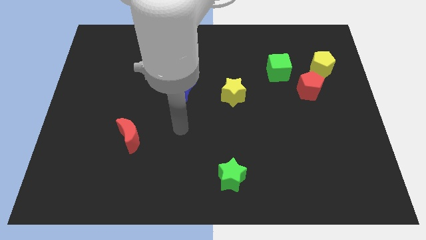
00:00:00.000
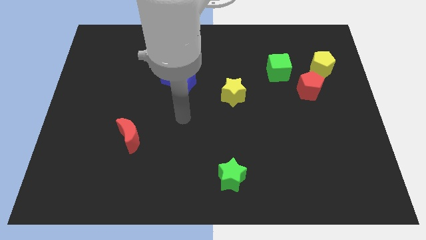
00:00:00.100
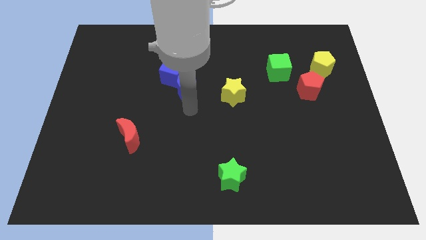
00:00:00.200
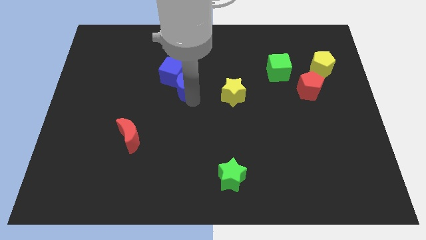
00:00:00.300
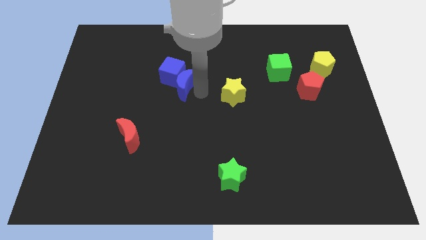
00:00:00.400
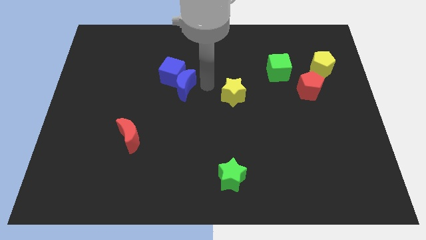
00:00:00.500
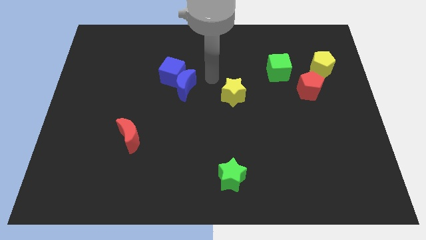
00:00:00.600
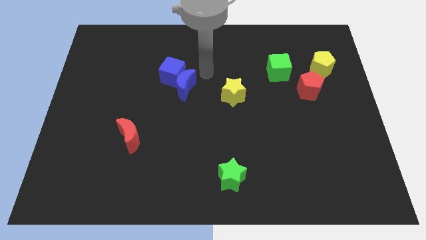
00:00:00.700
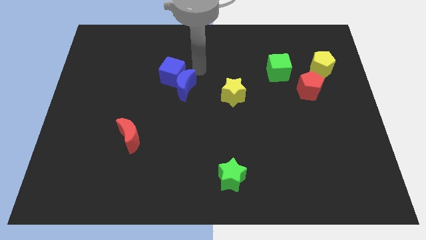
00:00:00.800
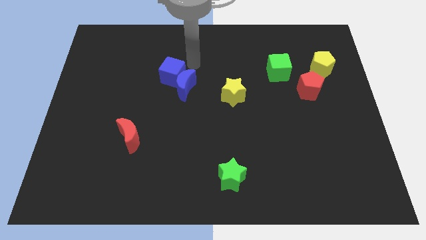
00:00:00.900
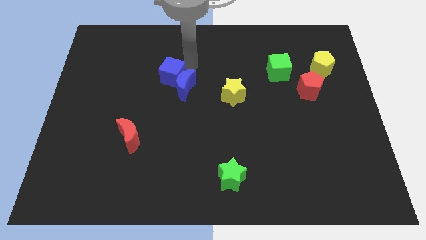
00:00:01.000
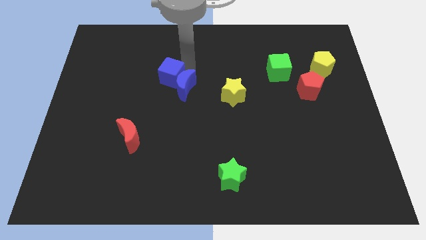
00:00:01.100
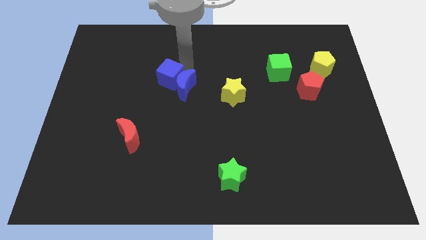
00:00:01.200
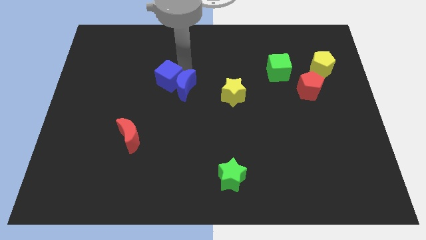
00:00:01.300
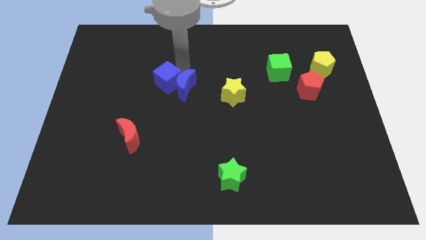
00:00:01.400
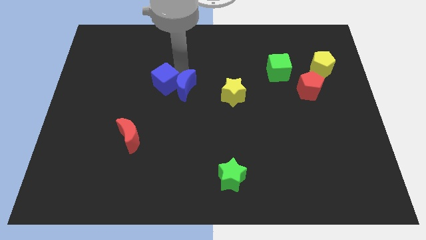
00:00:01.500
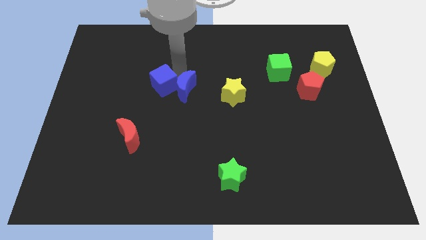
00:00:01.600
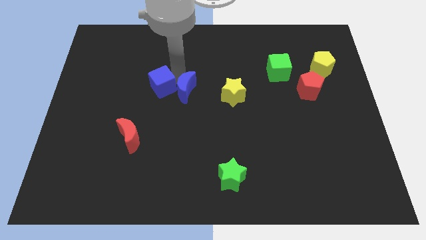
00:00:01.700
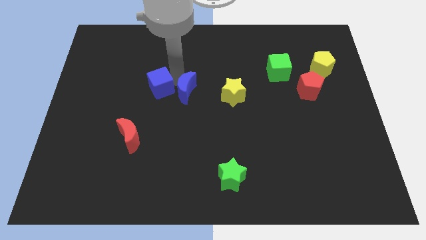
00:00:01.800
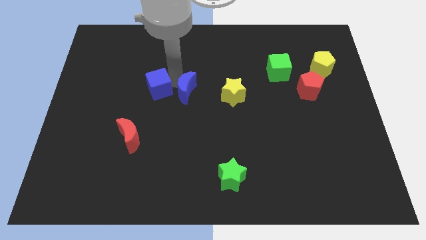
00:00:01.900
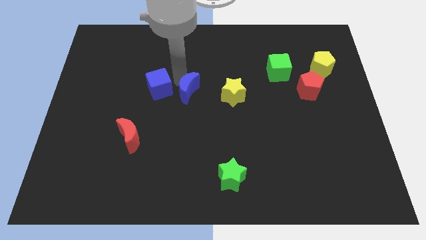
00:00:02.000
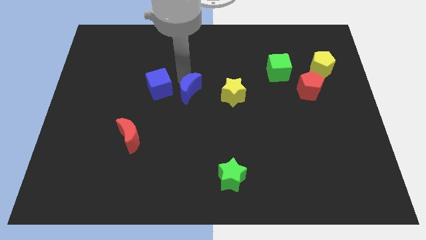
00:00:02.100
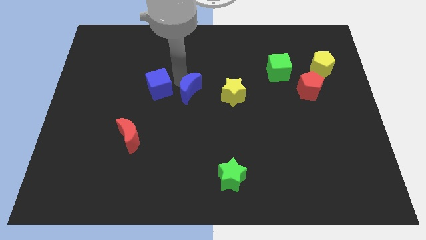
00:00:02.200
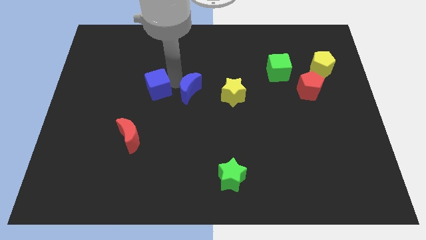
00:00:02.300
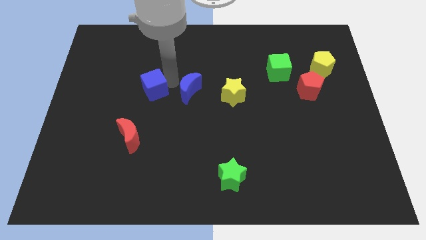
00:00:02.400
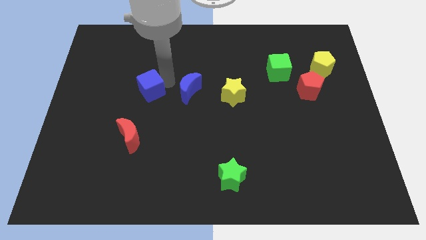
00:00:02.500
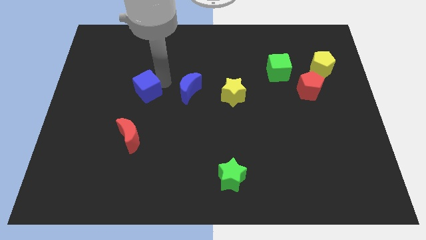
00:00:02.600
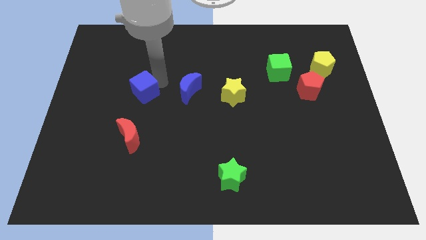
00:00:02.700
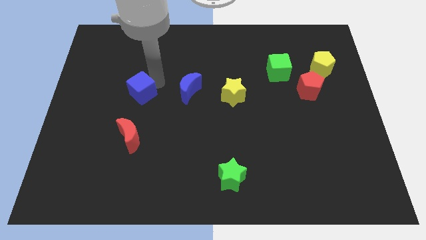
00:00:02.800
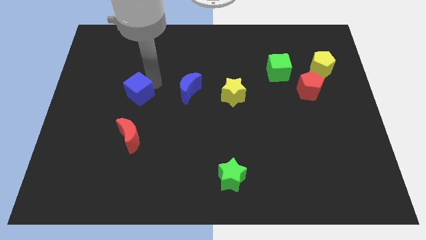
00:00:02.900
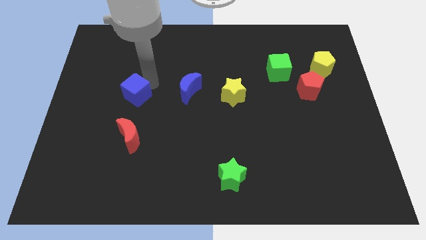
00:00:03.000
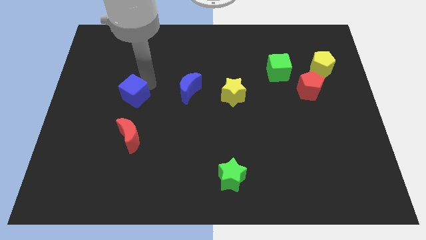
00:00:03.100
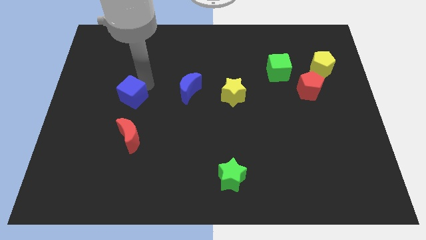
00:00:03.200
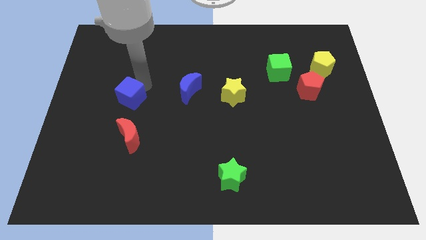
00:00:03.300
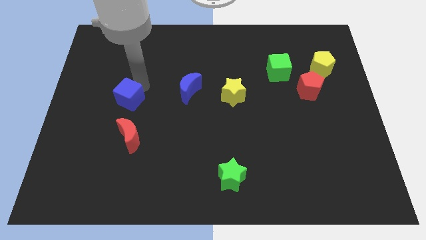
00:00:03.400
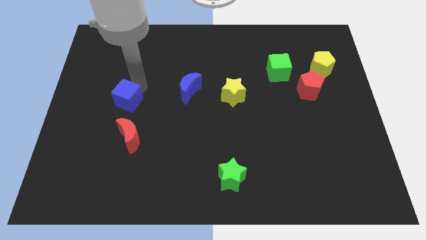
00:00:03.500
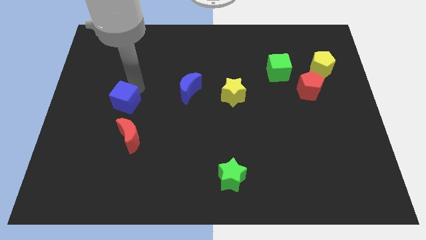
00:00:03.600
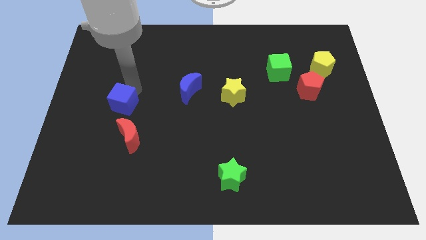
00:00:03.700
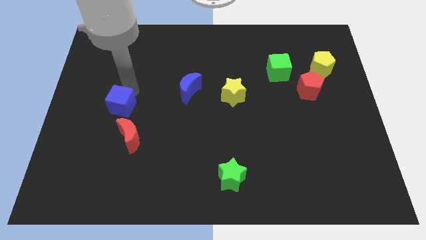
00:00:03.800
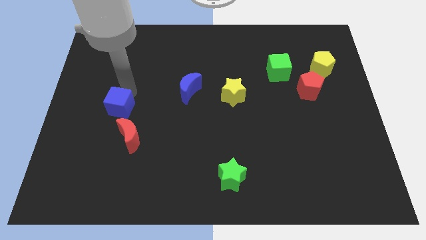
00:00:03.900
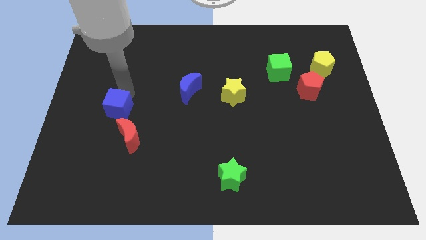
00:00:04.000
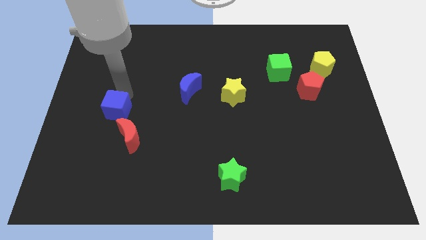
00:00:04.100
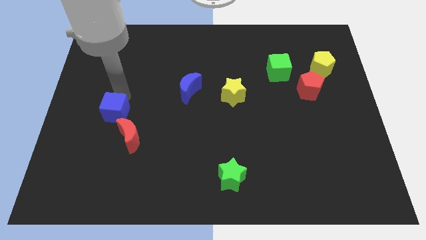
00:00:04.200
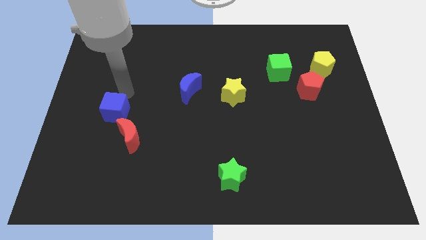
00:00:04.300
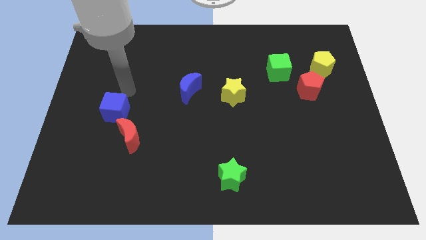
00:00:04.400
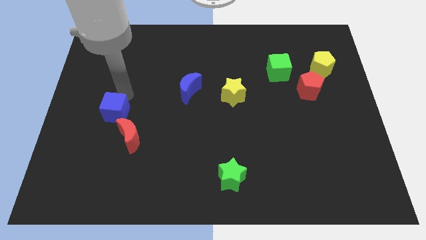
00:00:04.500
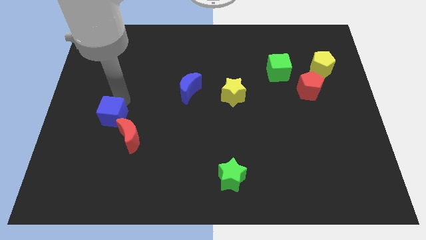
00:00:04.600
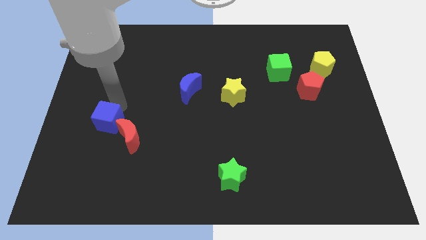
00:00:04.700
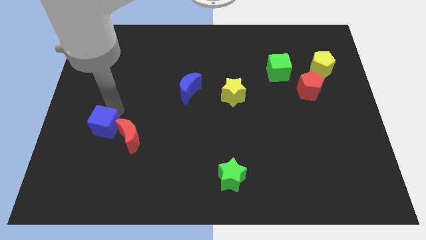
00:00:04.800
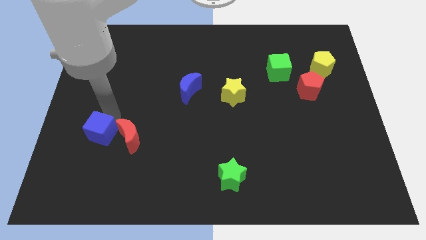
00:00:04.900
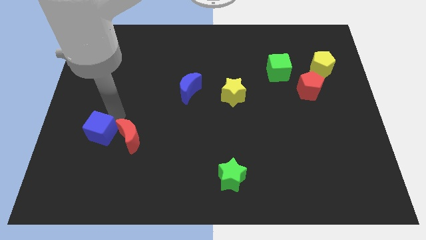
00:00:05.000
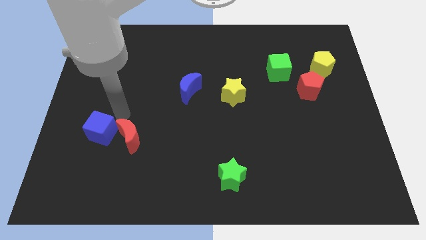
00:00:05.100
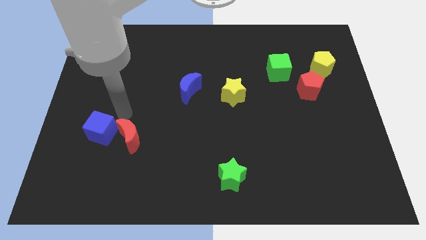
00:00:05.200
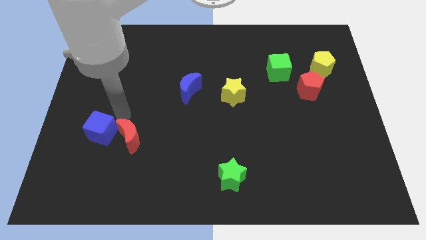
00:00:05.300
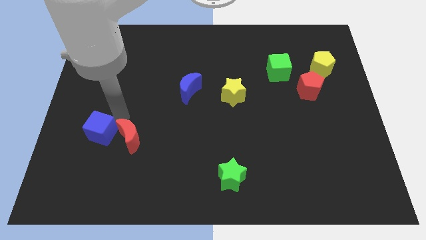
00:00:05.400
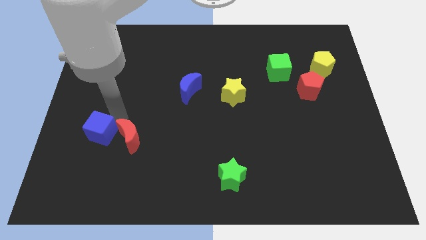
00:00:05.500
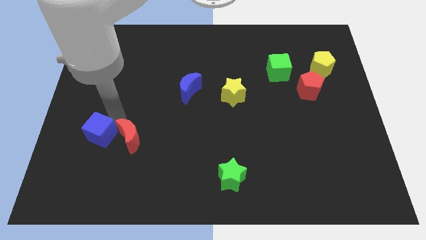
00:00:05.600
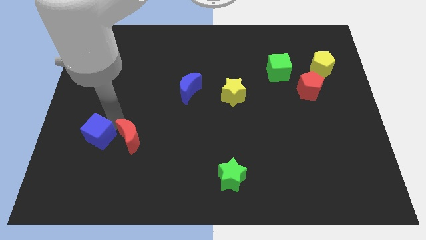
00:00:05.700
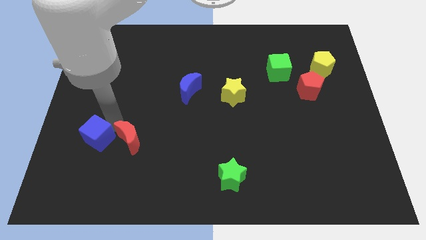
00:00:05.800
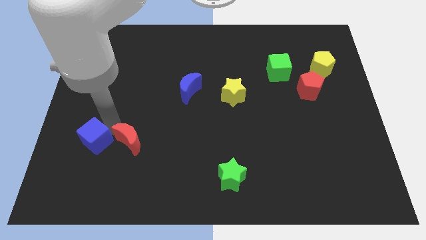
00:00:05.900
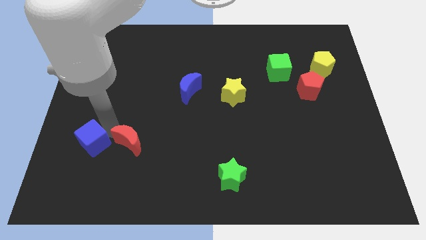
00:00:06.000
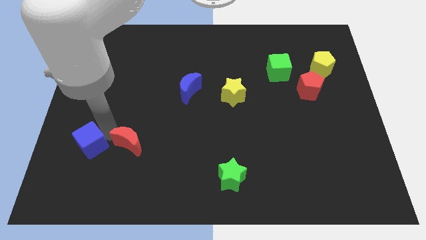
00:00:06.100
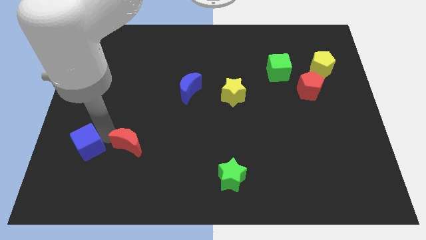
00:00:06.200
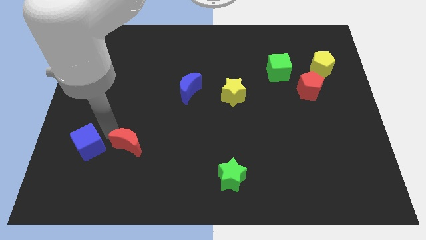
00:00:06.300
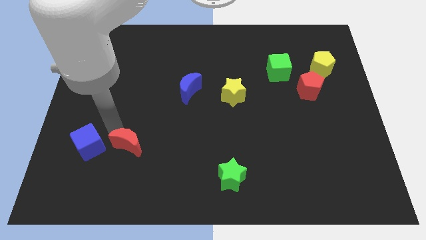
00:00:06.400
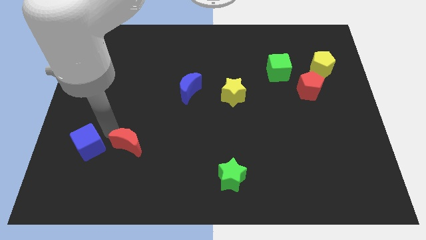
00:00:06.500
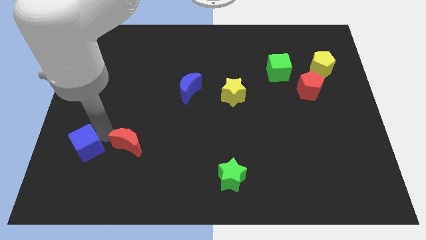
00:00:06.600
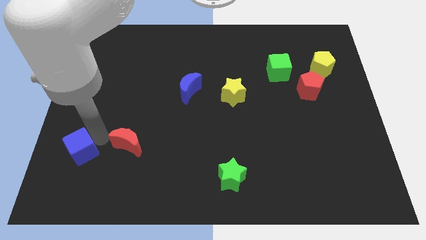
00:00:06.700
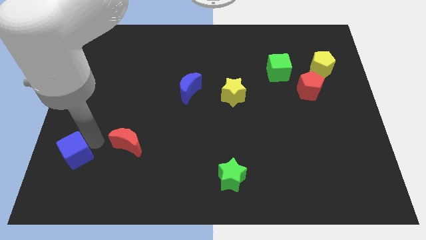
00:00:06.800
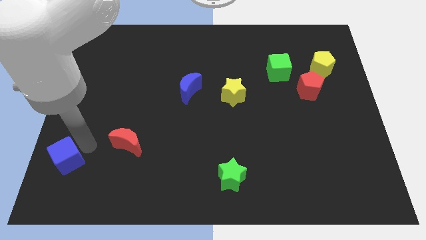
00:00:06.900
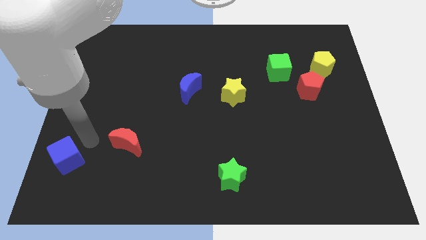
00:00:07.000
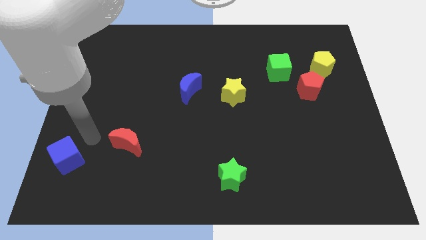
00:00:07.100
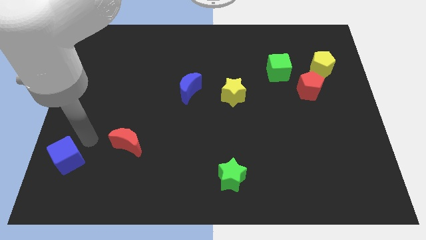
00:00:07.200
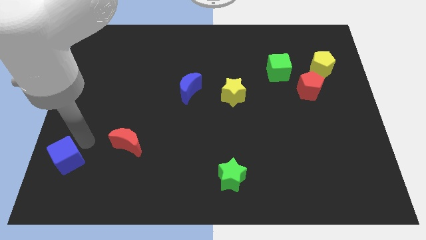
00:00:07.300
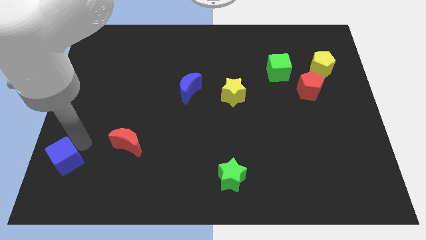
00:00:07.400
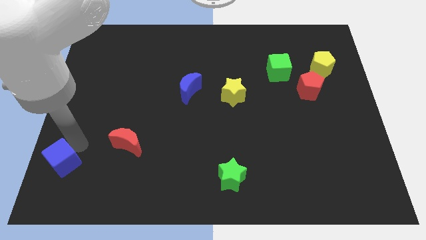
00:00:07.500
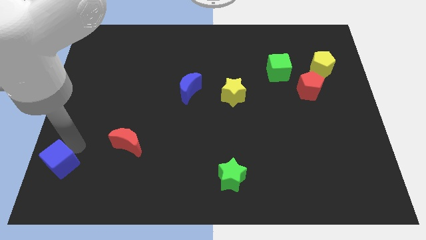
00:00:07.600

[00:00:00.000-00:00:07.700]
push the blue cube to the bottom left corner
